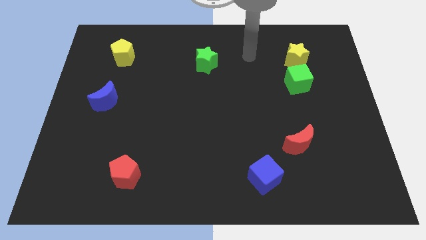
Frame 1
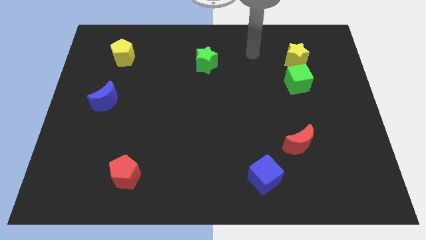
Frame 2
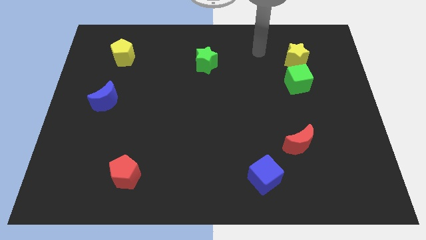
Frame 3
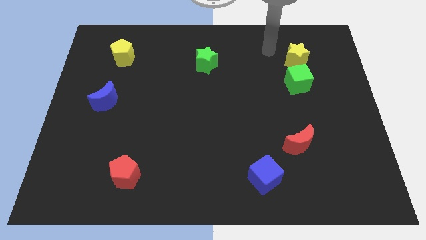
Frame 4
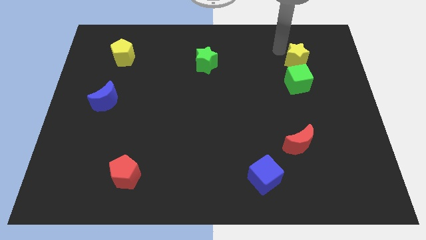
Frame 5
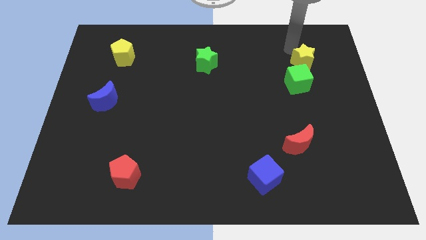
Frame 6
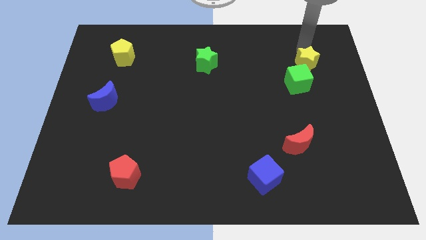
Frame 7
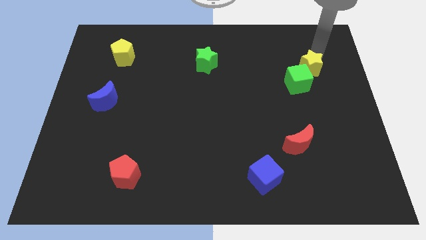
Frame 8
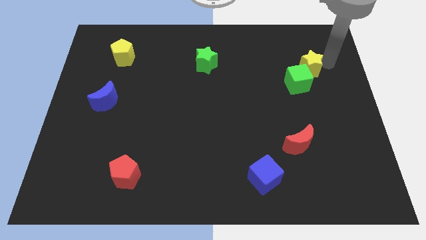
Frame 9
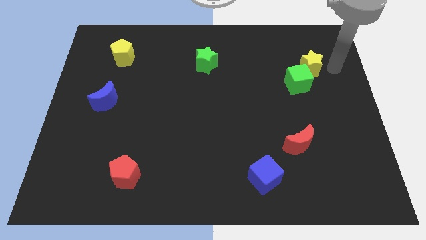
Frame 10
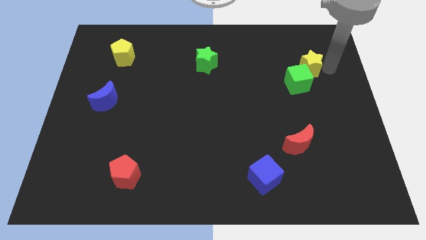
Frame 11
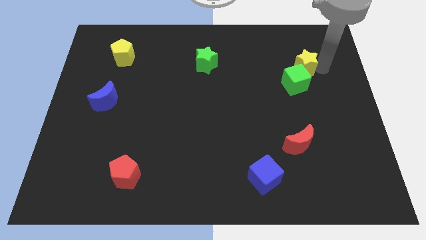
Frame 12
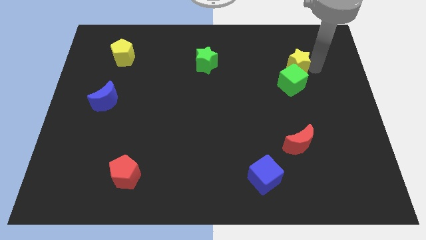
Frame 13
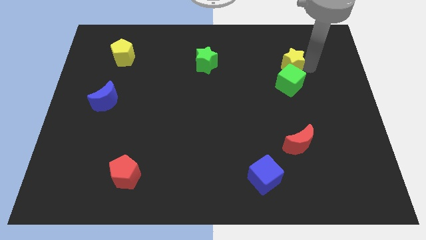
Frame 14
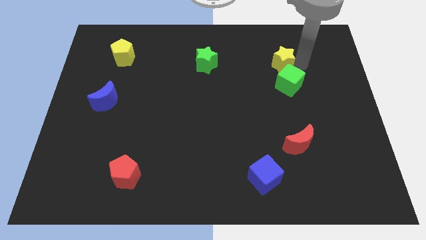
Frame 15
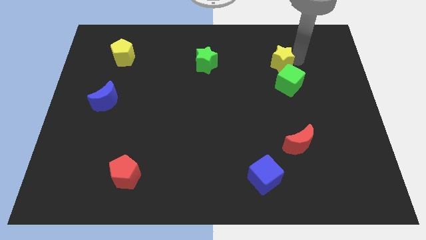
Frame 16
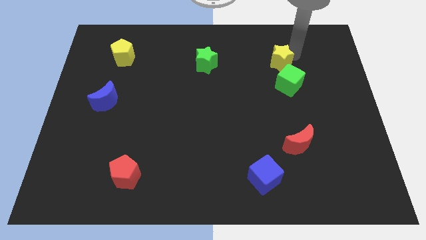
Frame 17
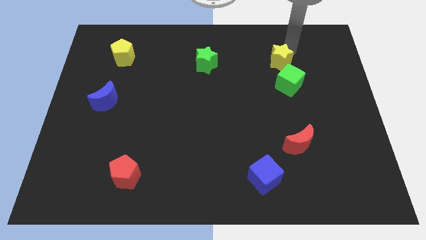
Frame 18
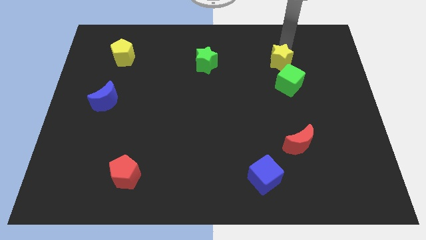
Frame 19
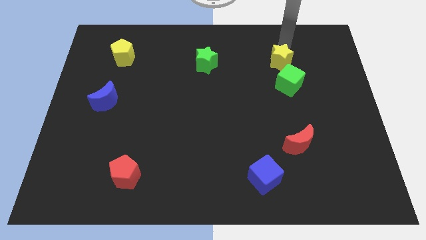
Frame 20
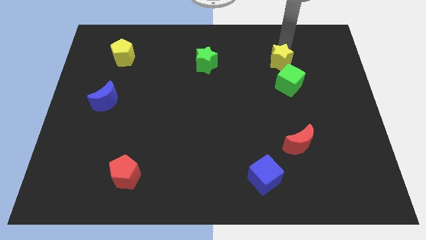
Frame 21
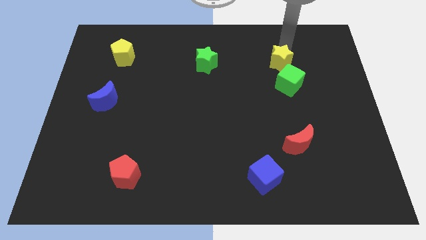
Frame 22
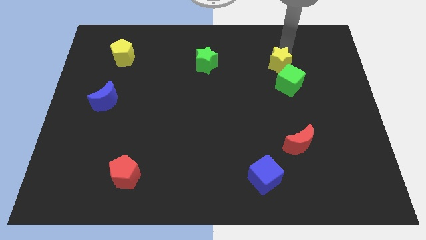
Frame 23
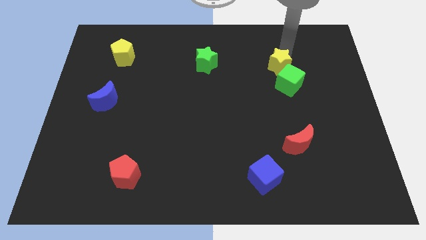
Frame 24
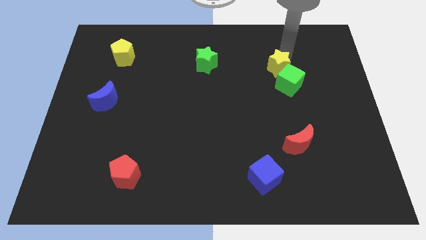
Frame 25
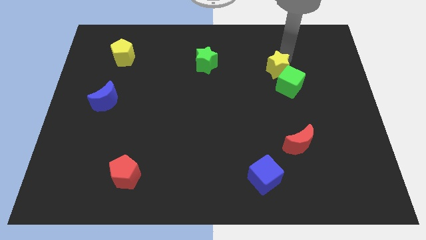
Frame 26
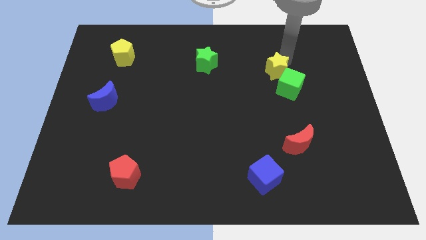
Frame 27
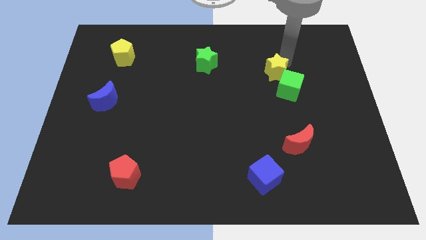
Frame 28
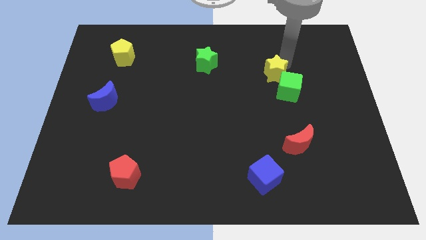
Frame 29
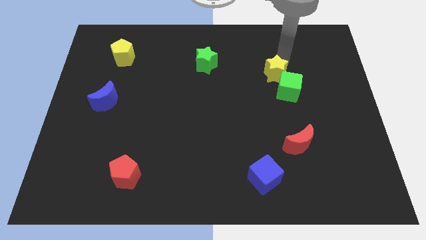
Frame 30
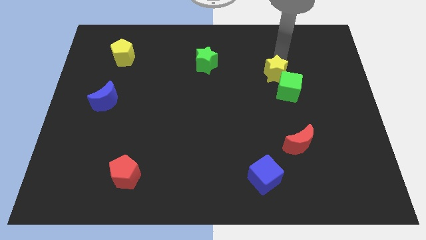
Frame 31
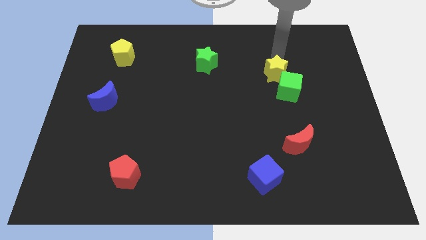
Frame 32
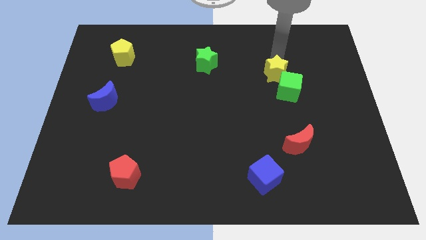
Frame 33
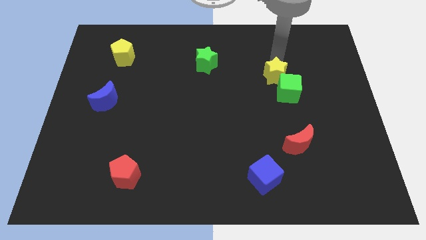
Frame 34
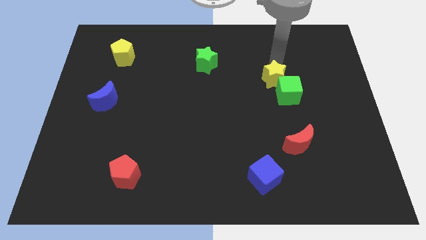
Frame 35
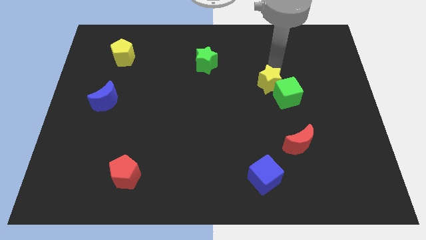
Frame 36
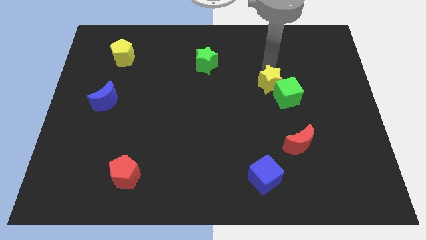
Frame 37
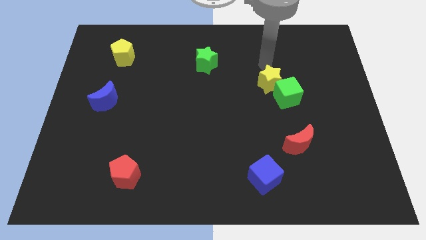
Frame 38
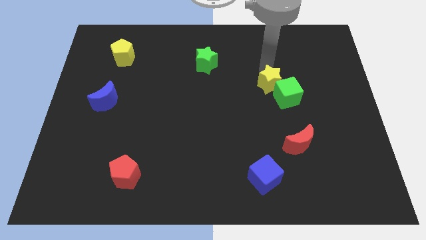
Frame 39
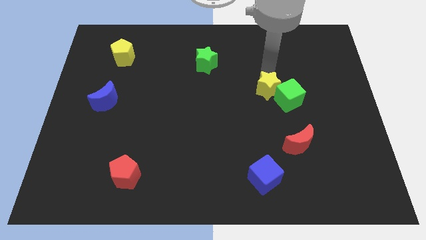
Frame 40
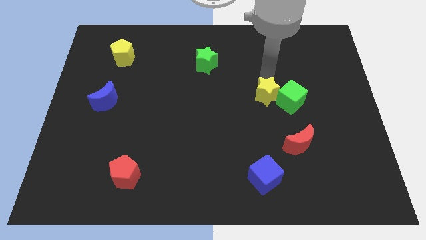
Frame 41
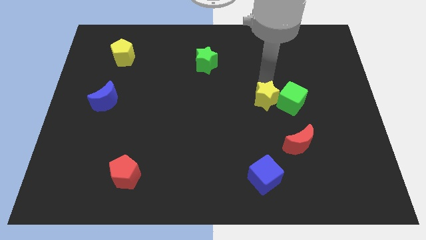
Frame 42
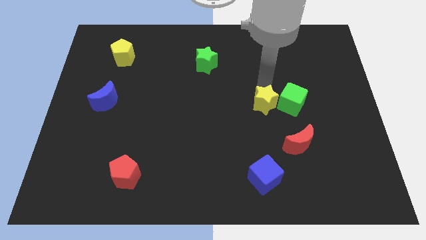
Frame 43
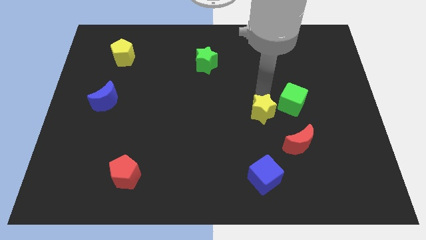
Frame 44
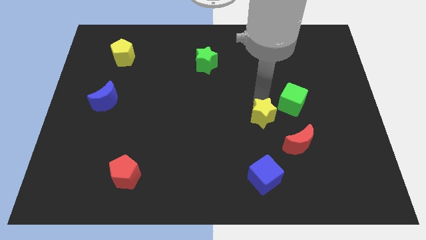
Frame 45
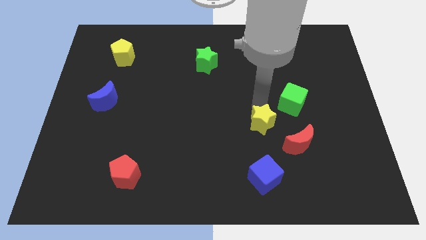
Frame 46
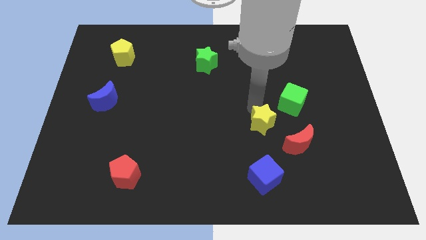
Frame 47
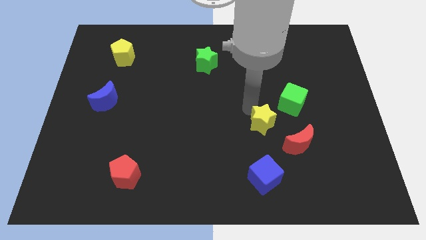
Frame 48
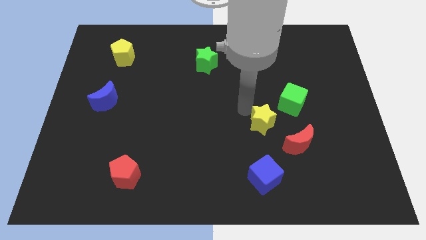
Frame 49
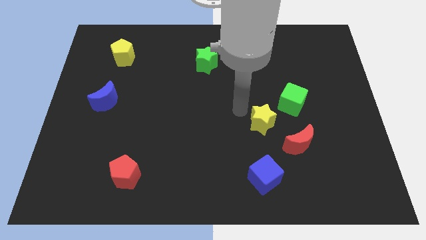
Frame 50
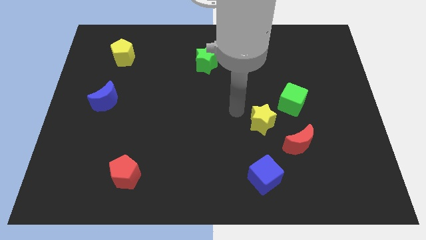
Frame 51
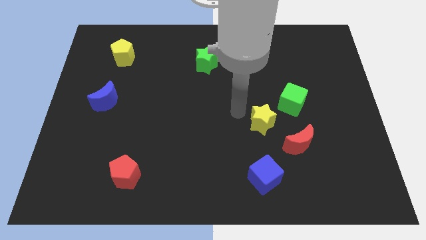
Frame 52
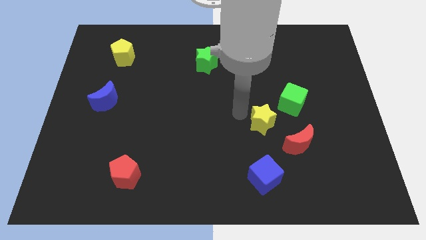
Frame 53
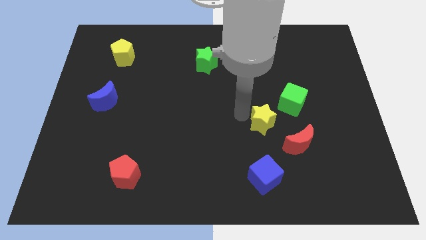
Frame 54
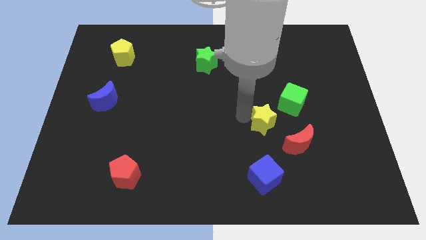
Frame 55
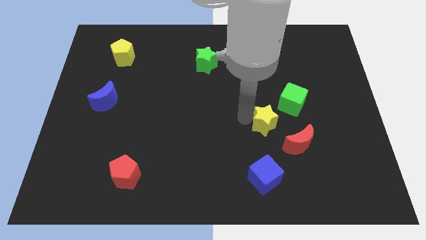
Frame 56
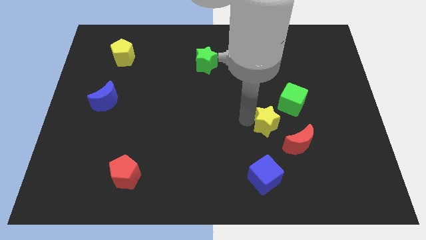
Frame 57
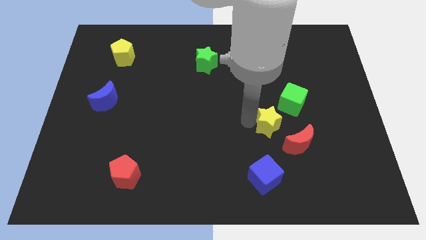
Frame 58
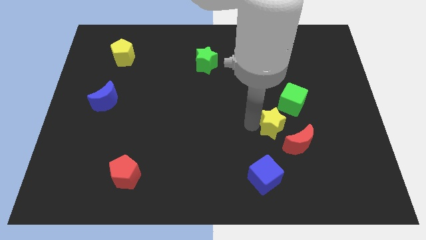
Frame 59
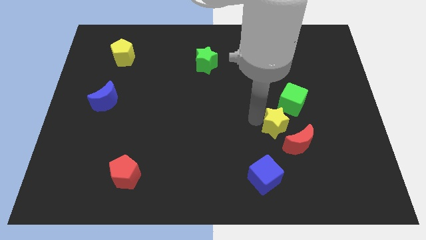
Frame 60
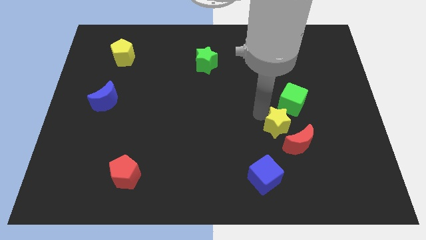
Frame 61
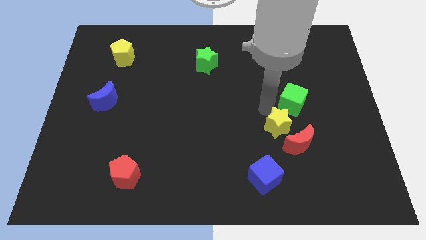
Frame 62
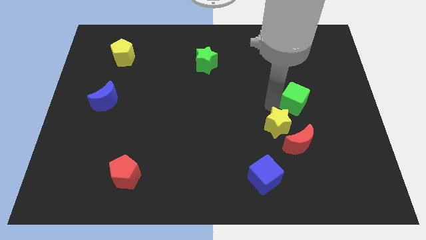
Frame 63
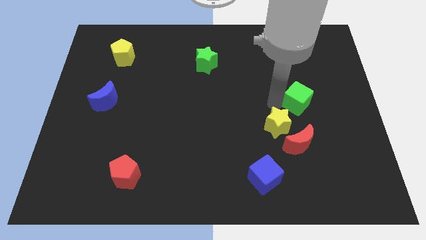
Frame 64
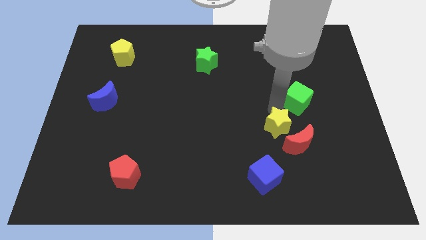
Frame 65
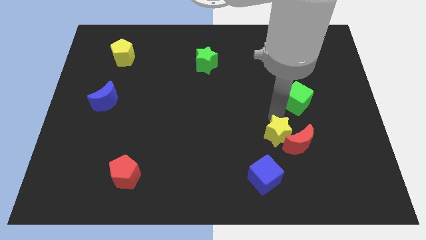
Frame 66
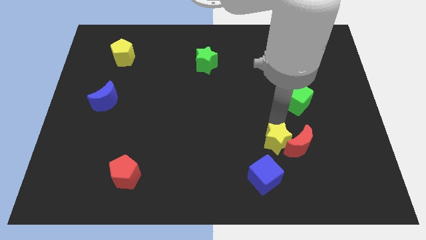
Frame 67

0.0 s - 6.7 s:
put the yellow star to the bottom left side of the red moon

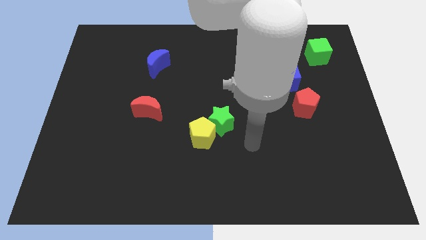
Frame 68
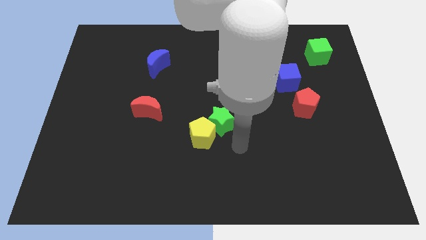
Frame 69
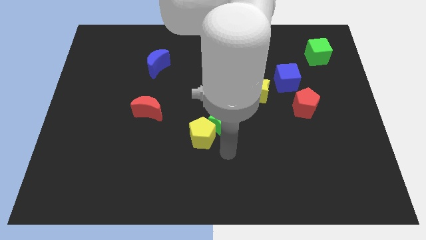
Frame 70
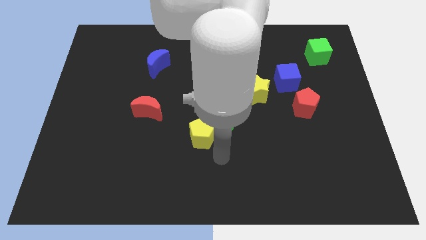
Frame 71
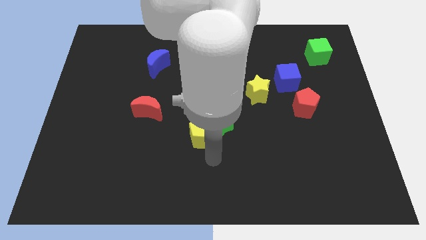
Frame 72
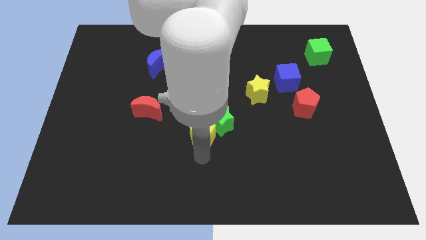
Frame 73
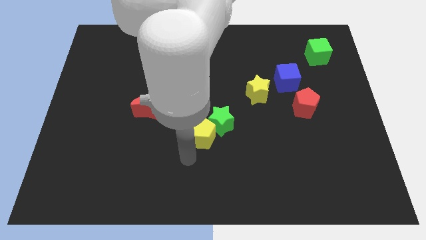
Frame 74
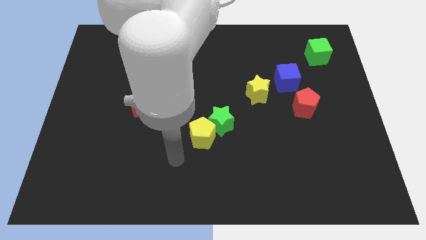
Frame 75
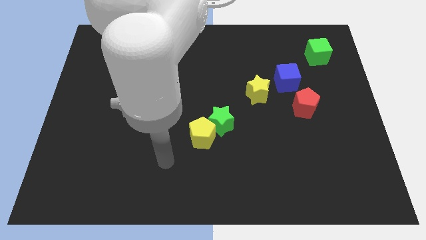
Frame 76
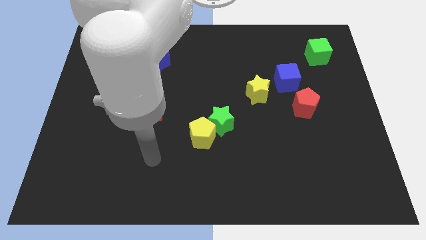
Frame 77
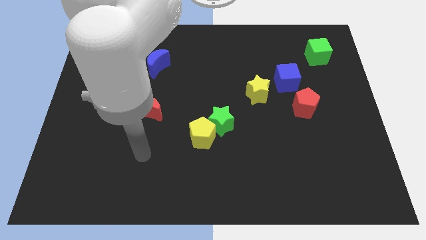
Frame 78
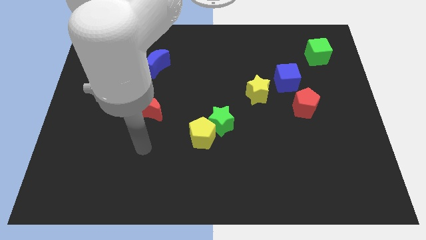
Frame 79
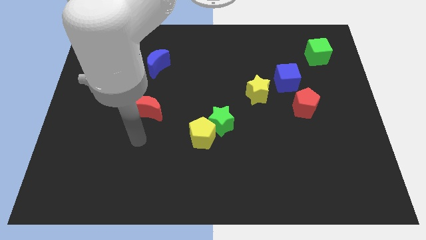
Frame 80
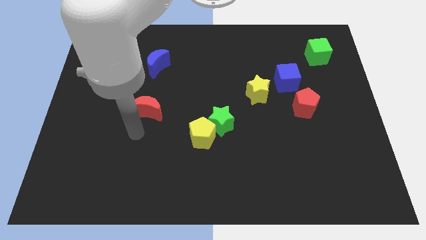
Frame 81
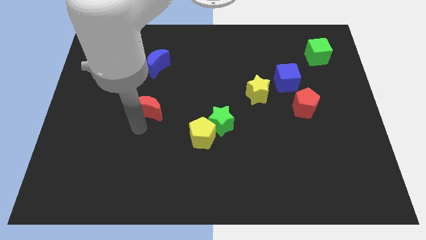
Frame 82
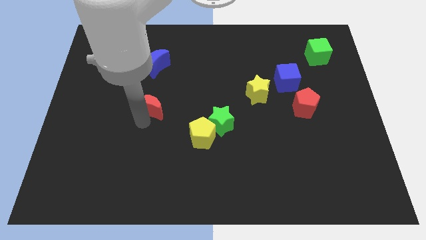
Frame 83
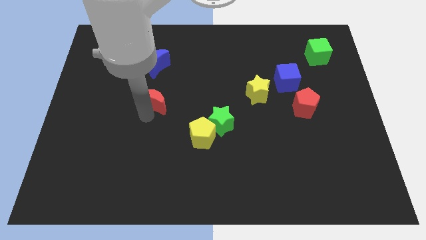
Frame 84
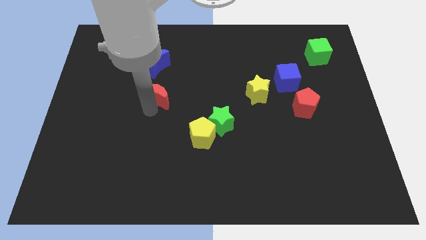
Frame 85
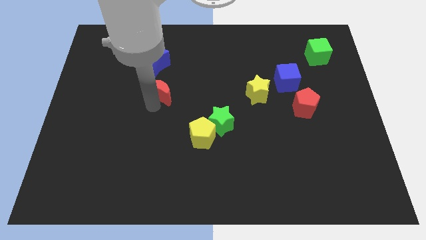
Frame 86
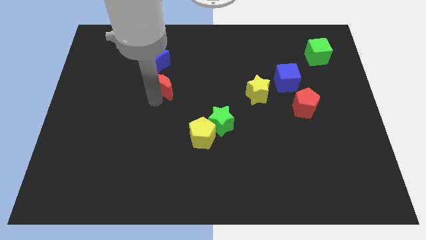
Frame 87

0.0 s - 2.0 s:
move the red moon to the bottom right of the blue moon
